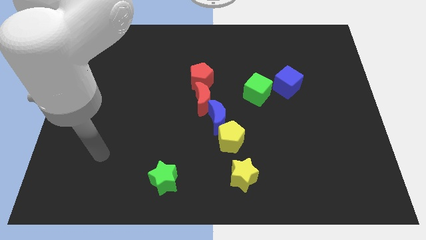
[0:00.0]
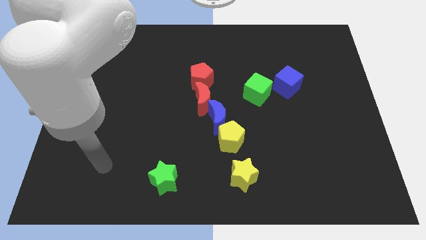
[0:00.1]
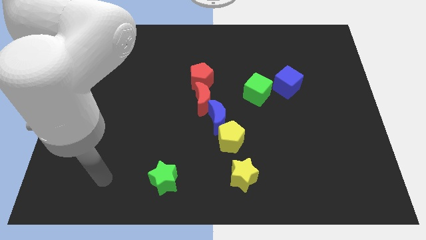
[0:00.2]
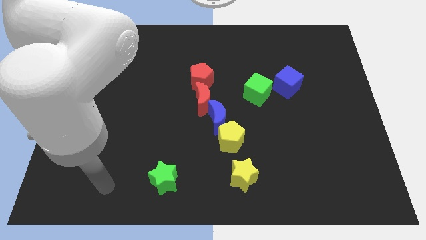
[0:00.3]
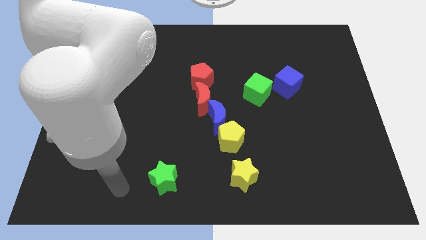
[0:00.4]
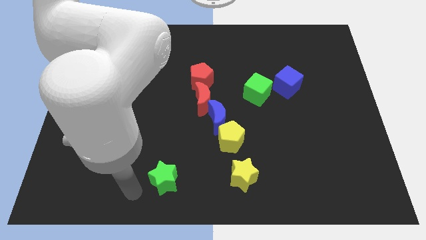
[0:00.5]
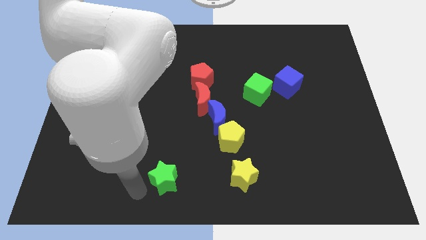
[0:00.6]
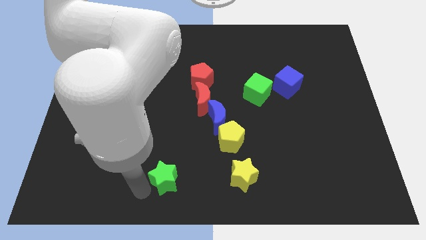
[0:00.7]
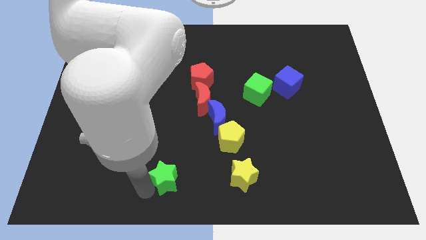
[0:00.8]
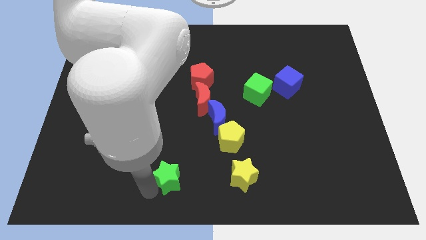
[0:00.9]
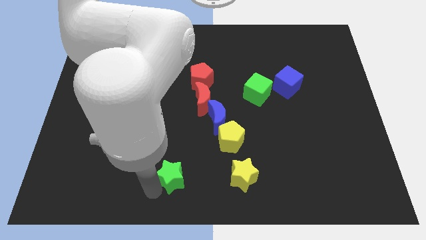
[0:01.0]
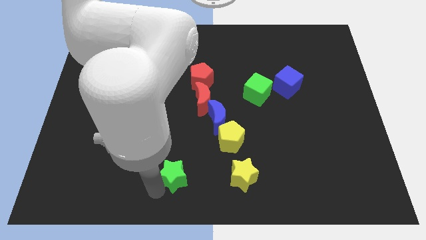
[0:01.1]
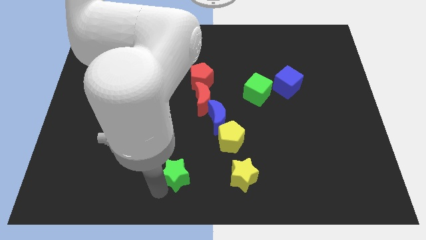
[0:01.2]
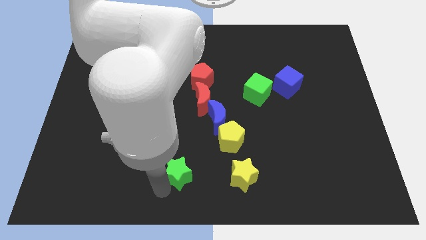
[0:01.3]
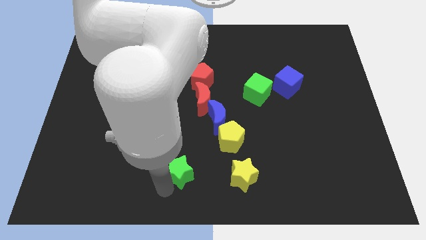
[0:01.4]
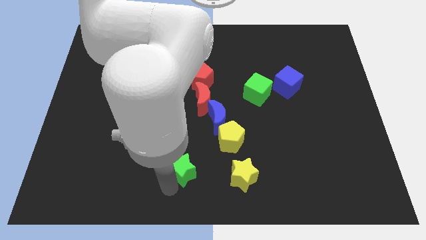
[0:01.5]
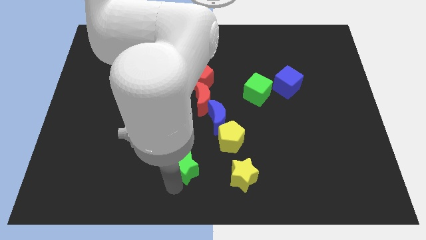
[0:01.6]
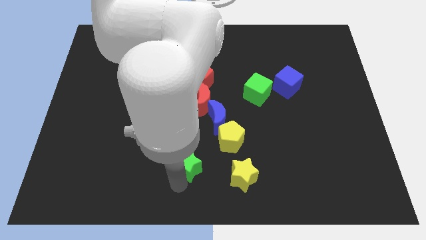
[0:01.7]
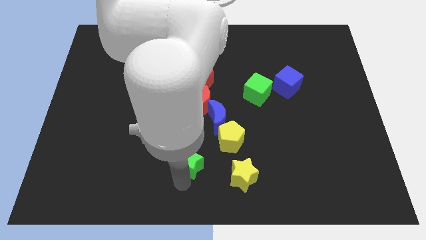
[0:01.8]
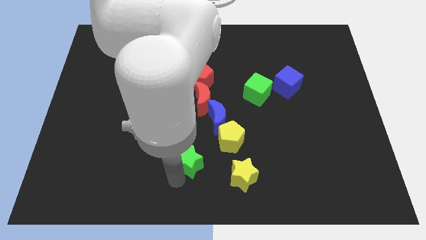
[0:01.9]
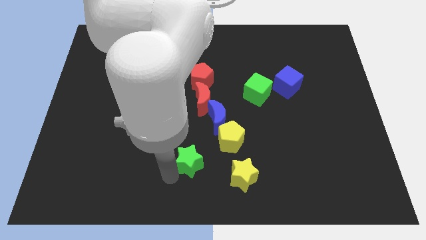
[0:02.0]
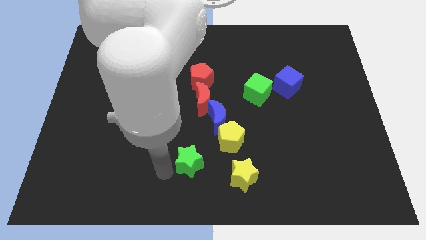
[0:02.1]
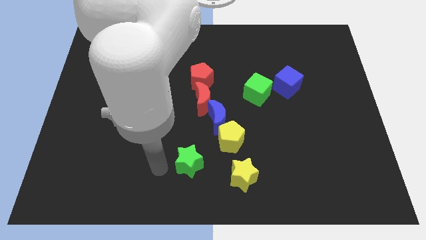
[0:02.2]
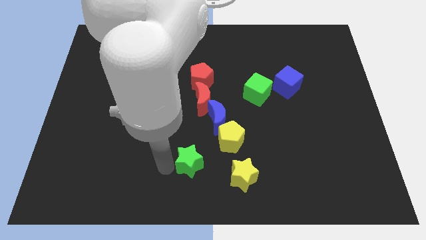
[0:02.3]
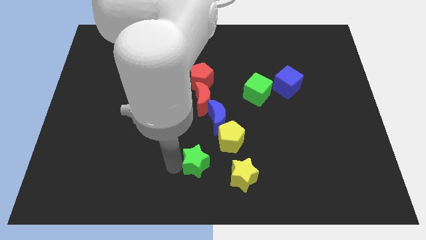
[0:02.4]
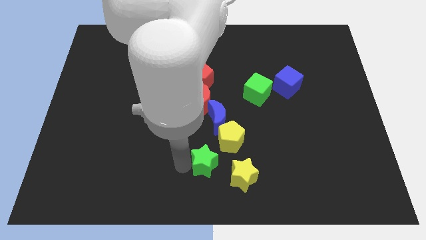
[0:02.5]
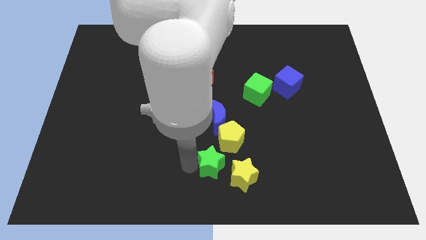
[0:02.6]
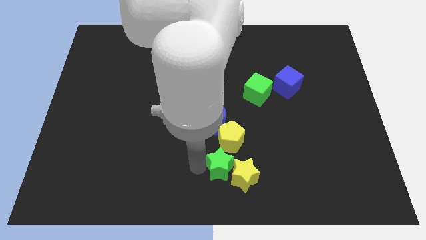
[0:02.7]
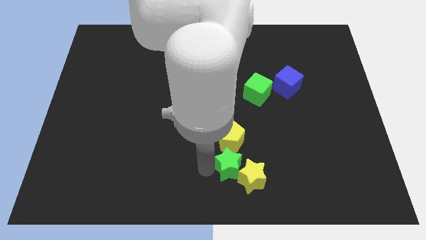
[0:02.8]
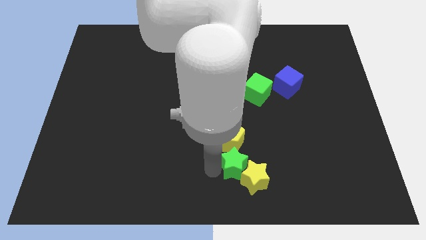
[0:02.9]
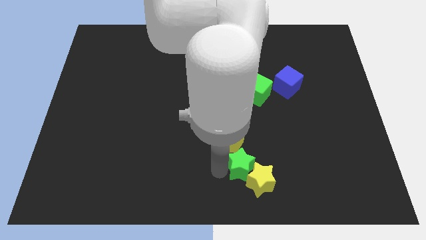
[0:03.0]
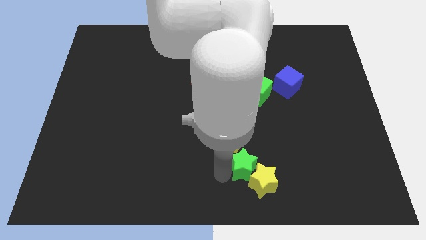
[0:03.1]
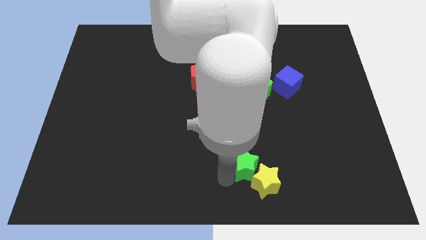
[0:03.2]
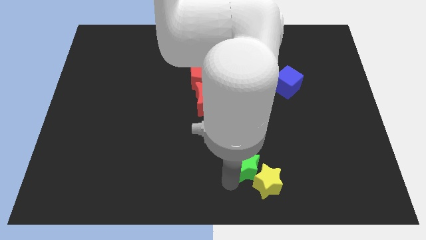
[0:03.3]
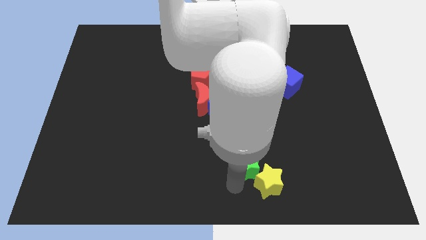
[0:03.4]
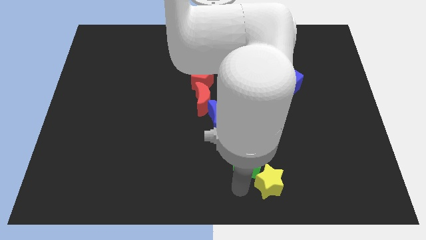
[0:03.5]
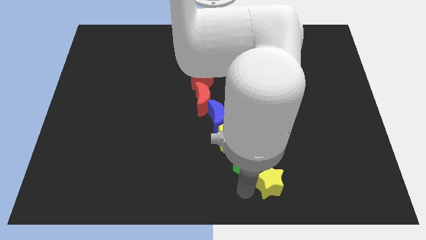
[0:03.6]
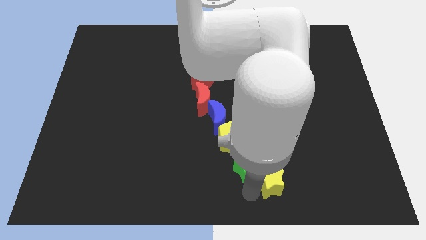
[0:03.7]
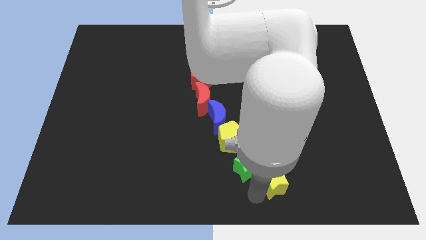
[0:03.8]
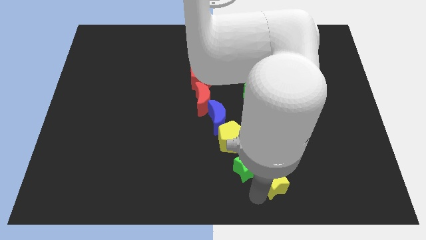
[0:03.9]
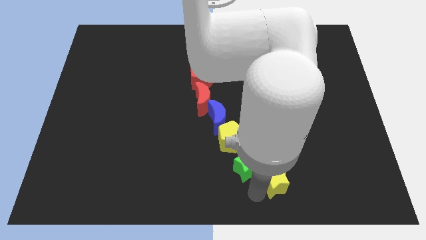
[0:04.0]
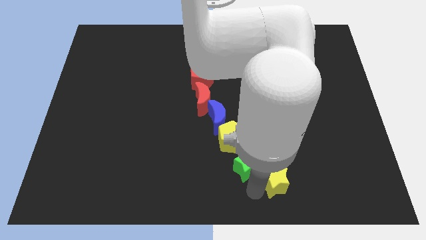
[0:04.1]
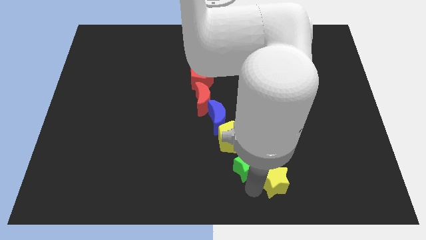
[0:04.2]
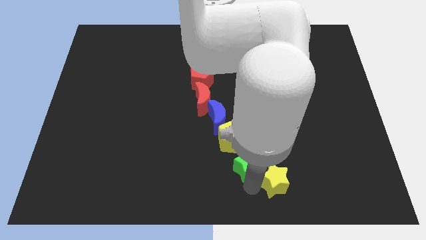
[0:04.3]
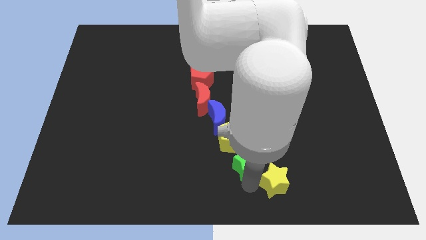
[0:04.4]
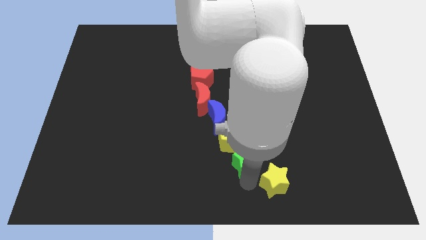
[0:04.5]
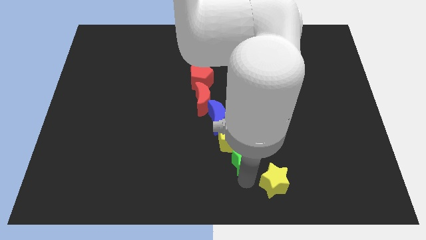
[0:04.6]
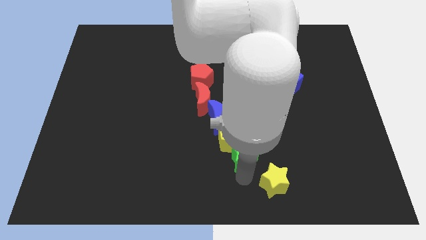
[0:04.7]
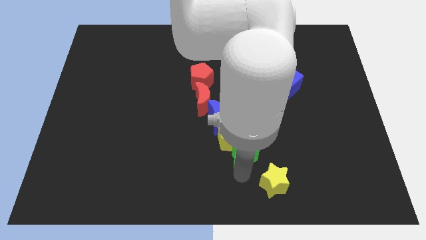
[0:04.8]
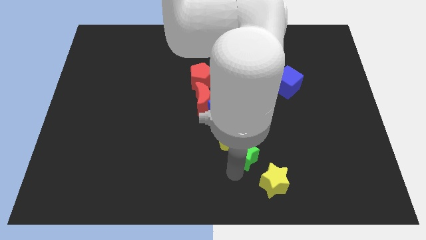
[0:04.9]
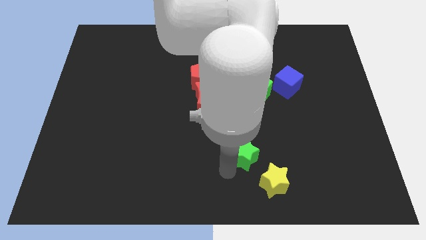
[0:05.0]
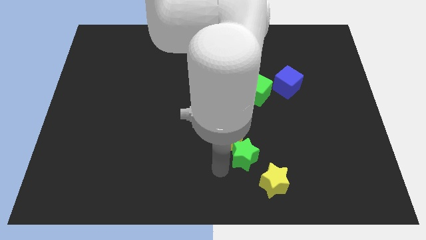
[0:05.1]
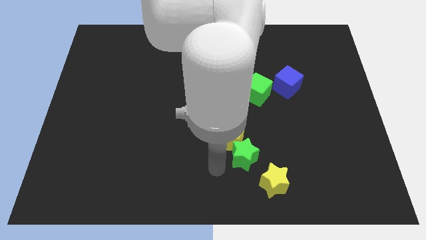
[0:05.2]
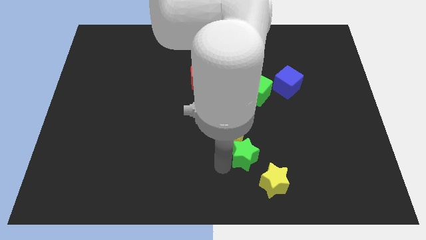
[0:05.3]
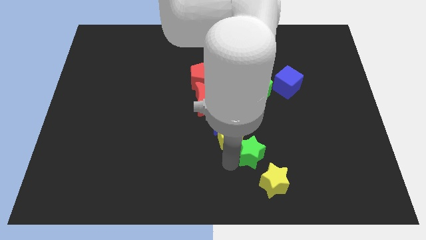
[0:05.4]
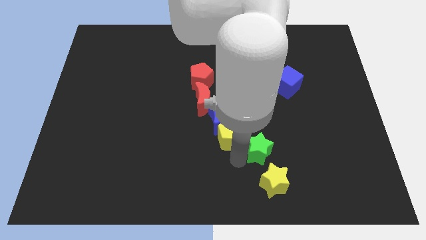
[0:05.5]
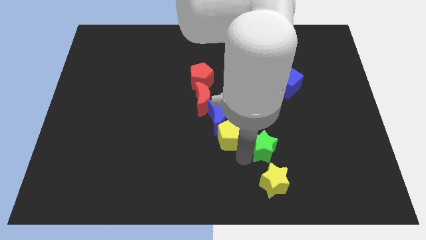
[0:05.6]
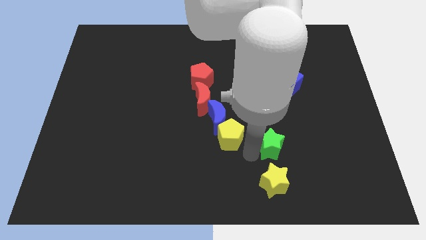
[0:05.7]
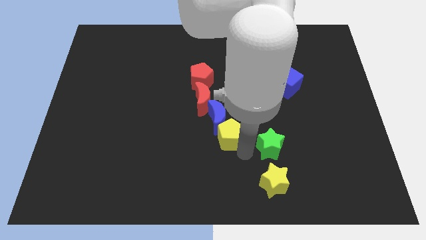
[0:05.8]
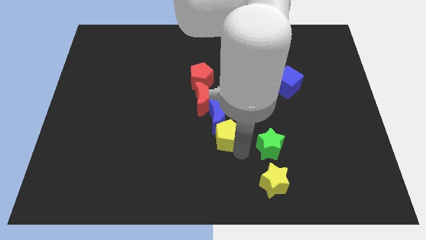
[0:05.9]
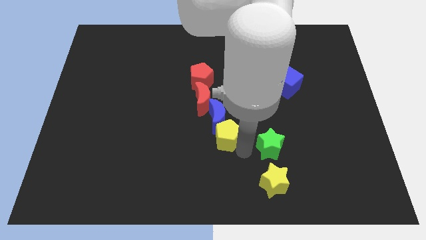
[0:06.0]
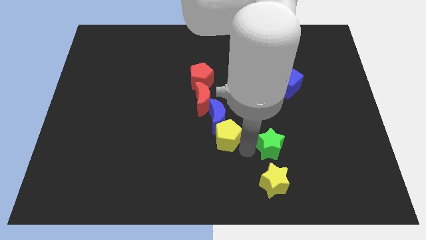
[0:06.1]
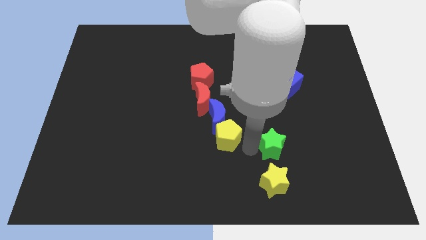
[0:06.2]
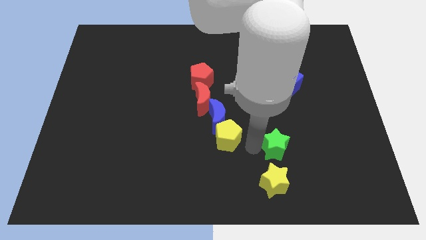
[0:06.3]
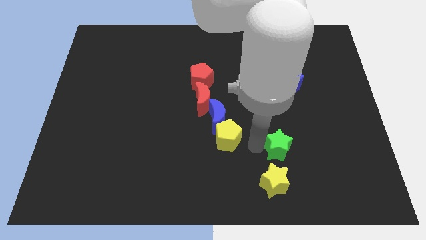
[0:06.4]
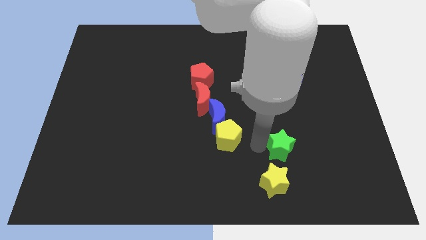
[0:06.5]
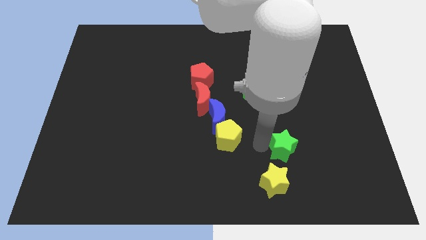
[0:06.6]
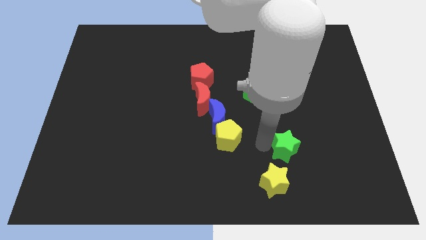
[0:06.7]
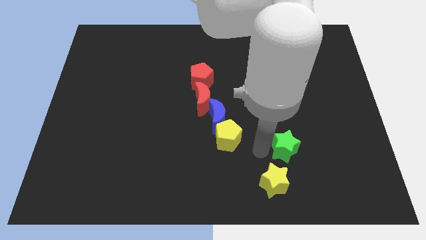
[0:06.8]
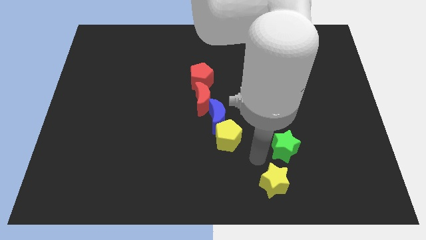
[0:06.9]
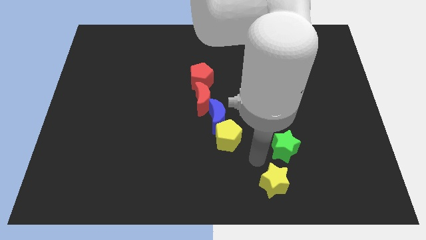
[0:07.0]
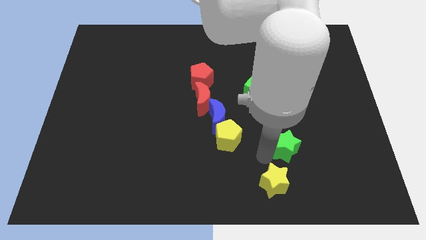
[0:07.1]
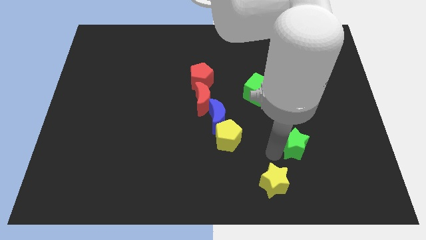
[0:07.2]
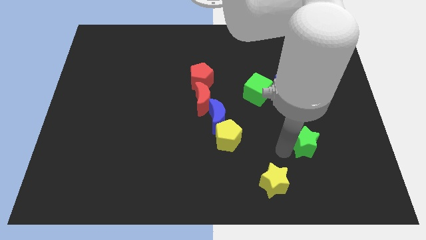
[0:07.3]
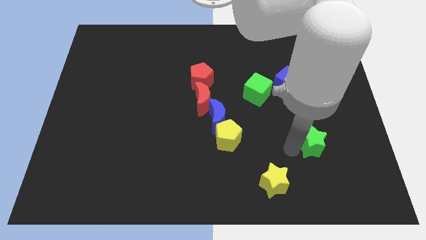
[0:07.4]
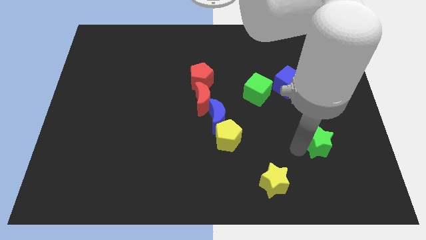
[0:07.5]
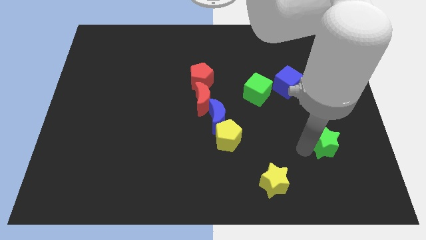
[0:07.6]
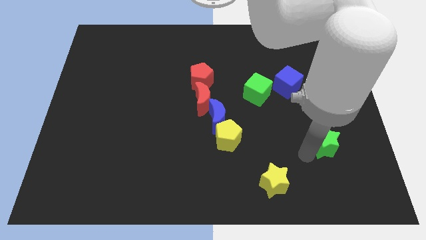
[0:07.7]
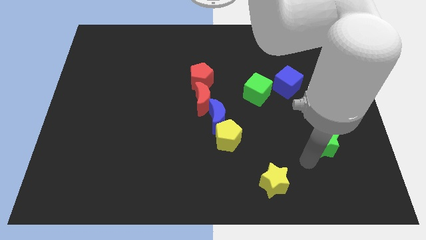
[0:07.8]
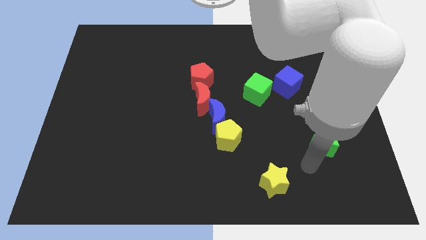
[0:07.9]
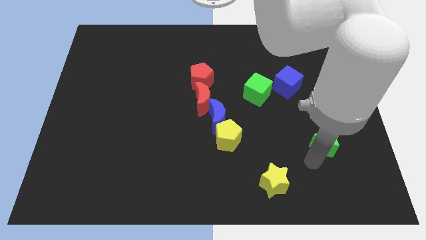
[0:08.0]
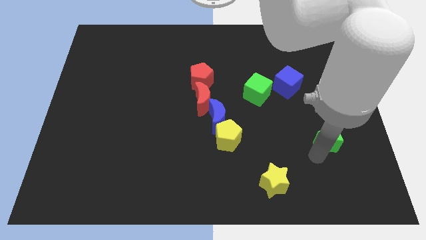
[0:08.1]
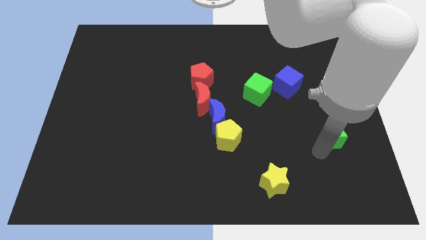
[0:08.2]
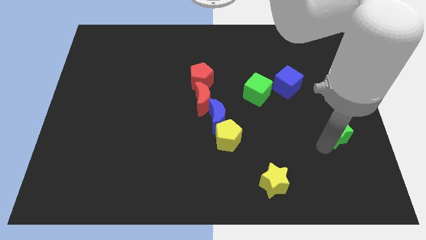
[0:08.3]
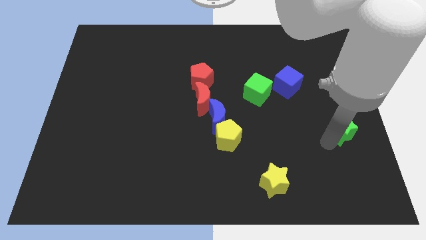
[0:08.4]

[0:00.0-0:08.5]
put the green star to the center right
